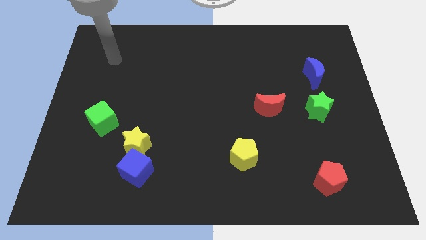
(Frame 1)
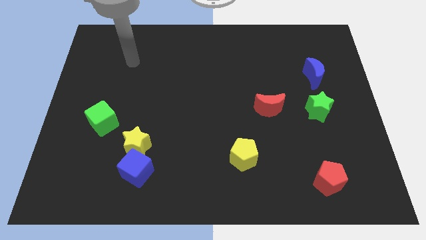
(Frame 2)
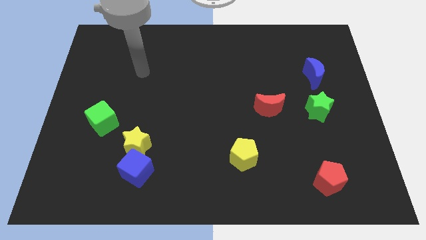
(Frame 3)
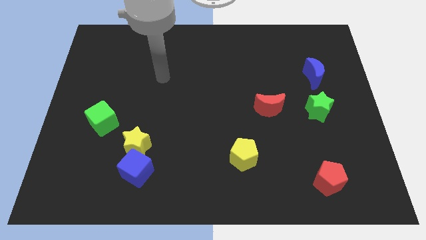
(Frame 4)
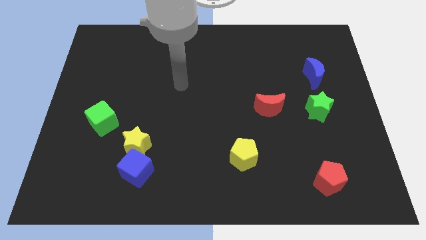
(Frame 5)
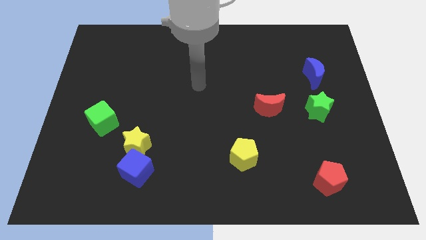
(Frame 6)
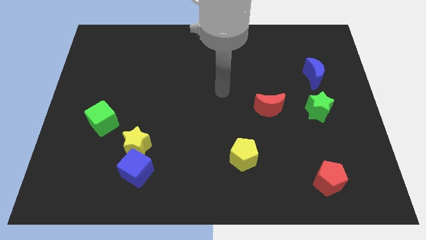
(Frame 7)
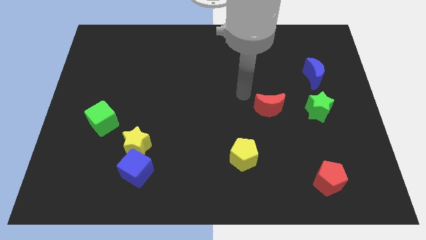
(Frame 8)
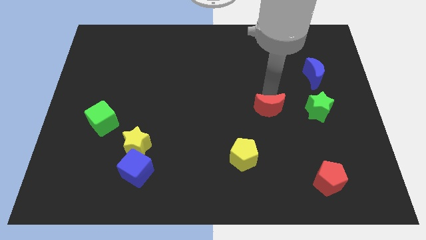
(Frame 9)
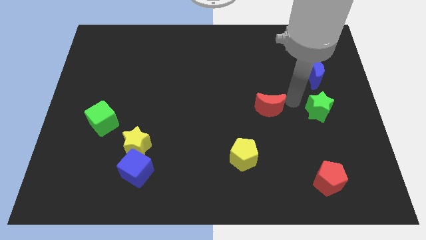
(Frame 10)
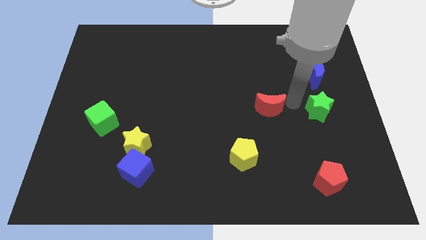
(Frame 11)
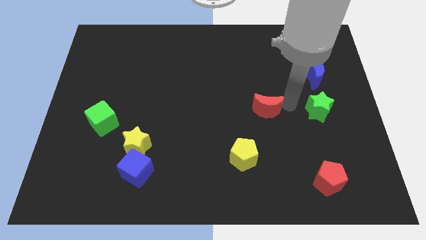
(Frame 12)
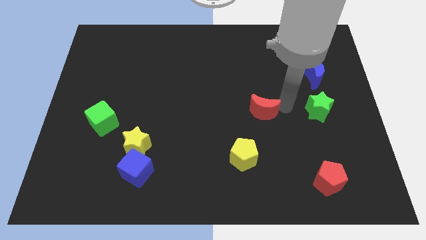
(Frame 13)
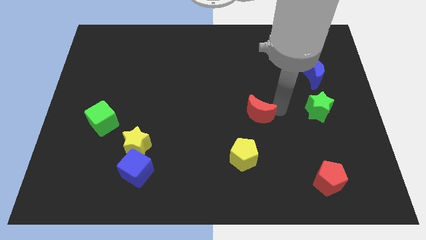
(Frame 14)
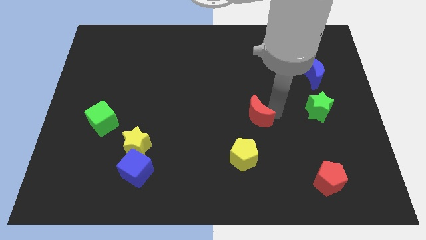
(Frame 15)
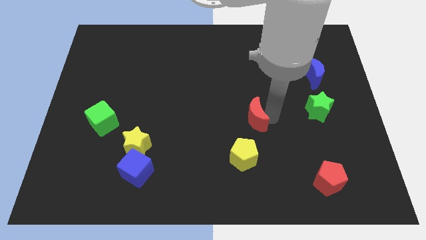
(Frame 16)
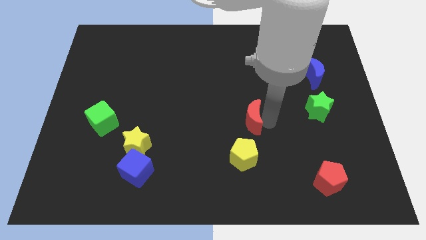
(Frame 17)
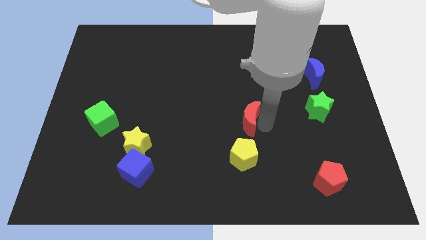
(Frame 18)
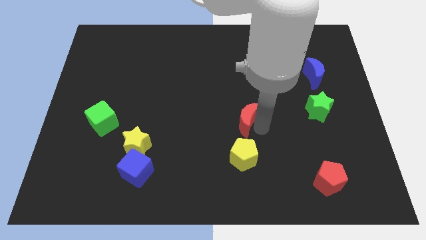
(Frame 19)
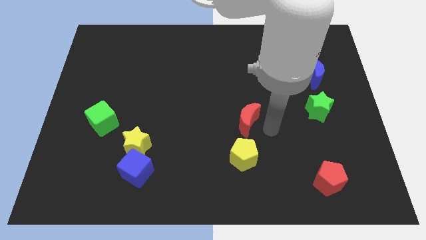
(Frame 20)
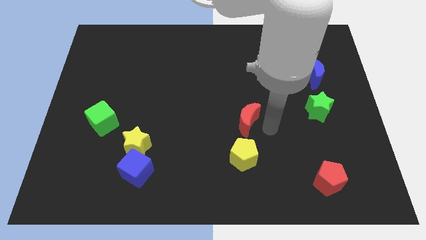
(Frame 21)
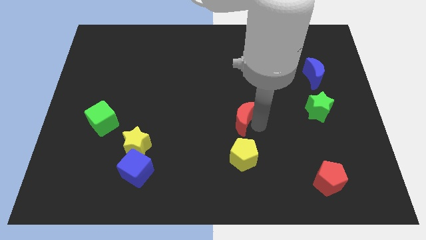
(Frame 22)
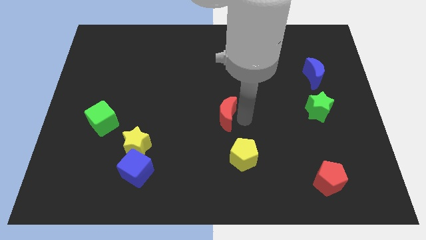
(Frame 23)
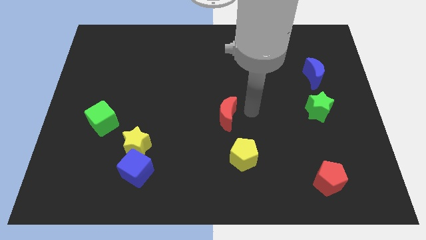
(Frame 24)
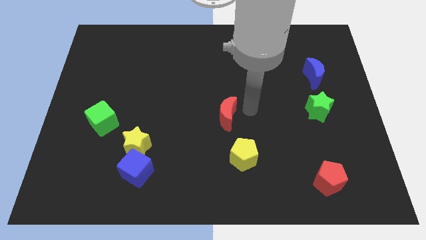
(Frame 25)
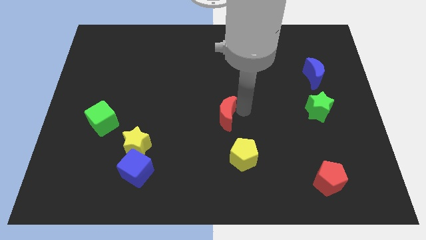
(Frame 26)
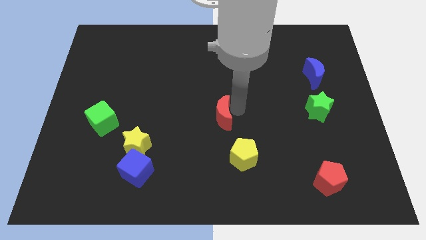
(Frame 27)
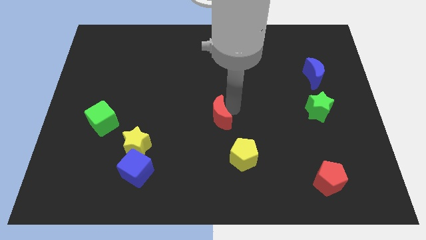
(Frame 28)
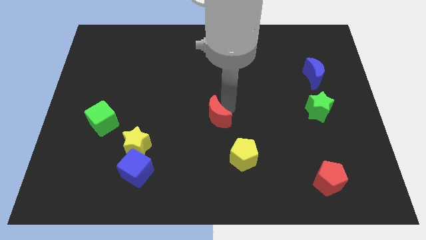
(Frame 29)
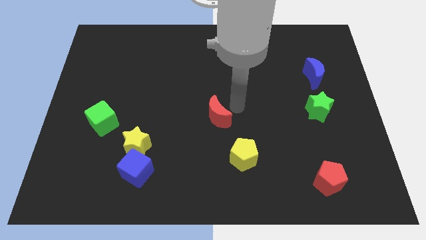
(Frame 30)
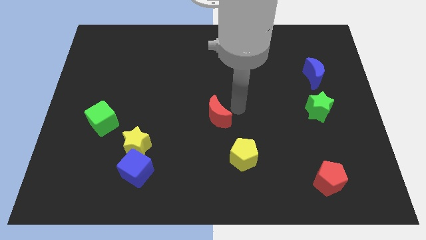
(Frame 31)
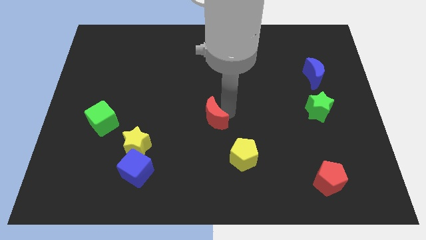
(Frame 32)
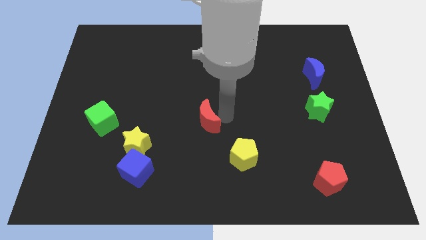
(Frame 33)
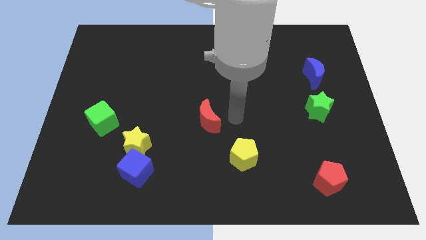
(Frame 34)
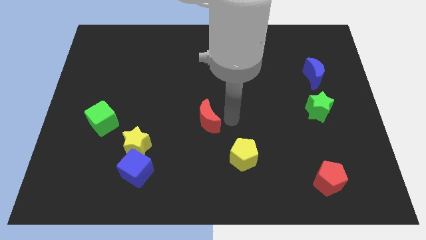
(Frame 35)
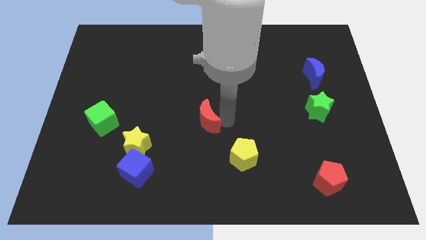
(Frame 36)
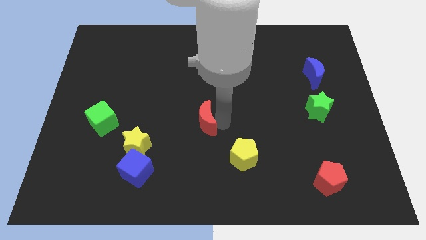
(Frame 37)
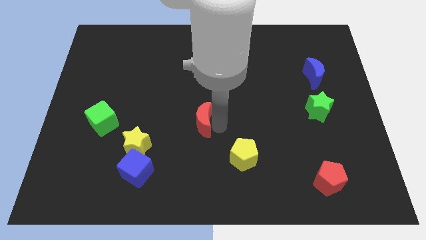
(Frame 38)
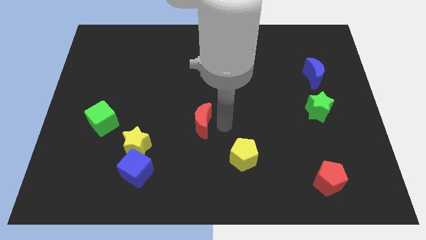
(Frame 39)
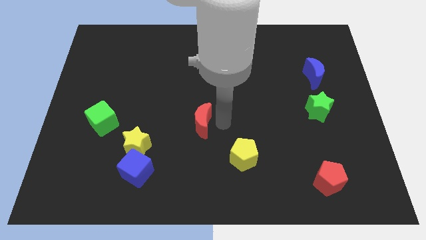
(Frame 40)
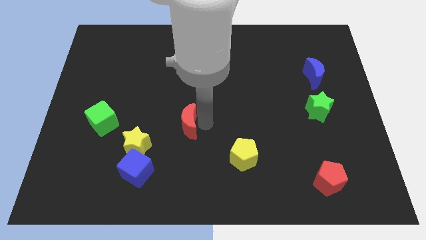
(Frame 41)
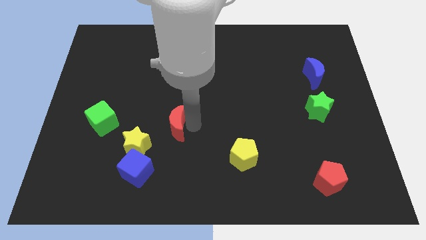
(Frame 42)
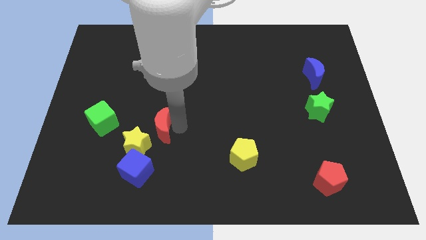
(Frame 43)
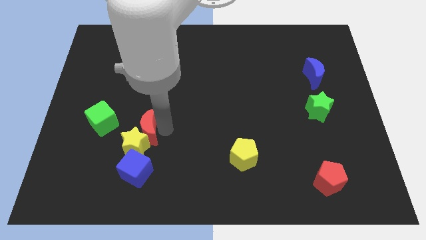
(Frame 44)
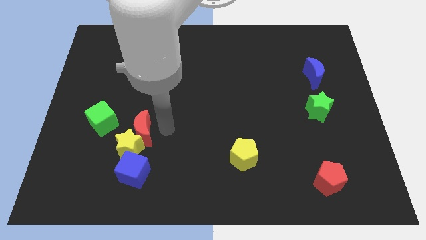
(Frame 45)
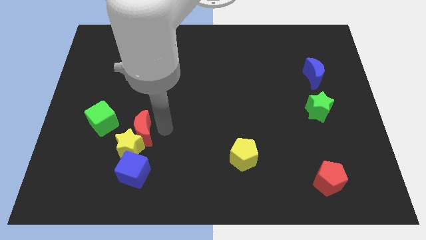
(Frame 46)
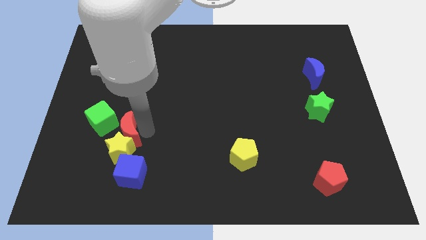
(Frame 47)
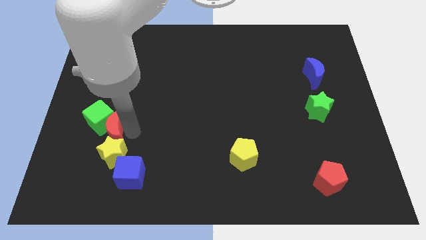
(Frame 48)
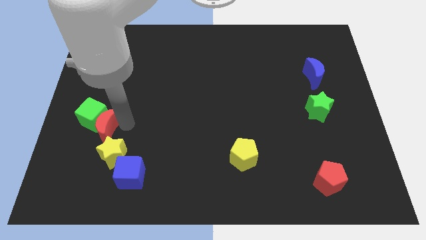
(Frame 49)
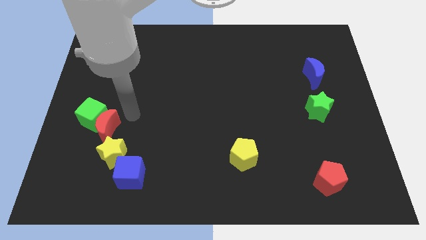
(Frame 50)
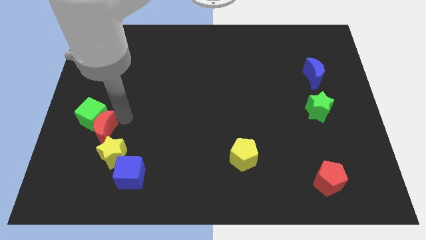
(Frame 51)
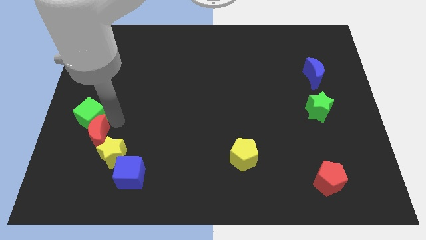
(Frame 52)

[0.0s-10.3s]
slide the red moon just left of the yellow star

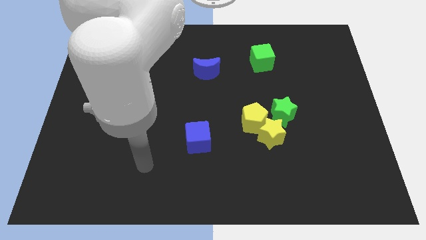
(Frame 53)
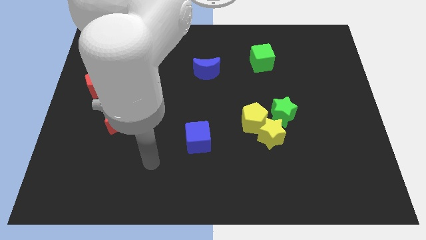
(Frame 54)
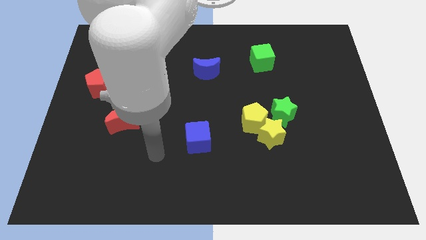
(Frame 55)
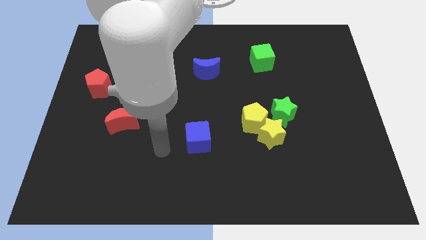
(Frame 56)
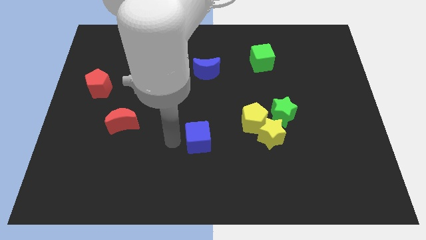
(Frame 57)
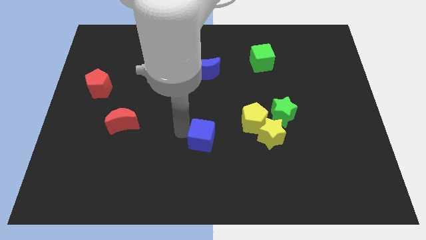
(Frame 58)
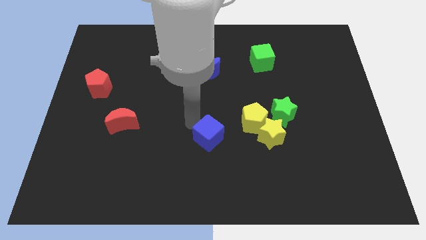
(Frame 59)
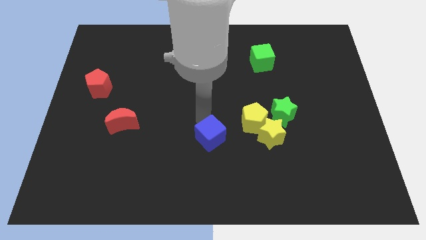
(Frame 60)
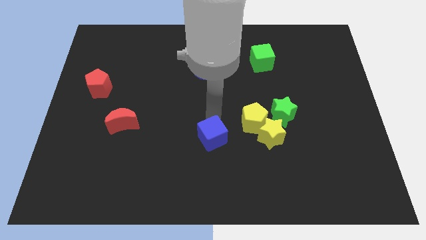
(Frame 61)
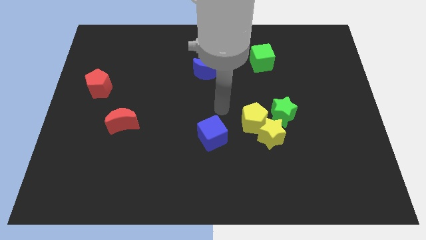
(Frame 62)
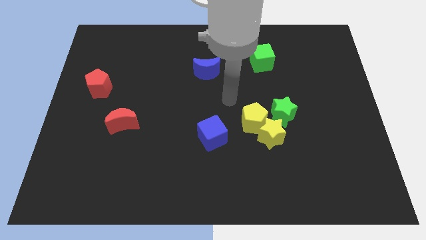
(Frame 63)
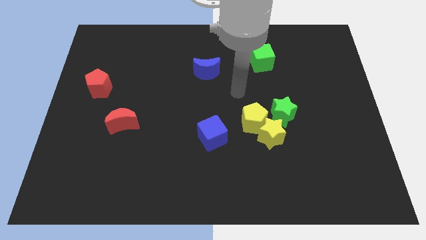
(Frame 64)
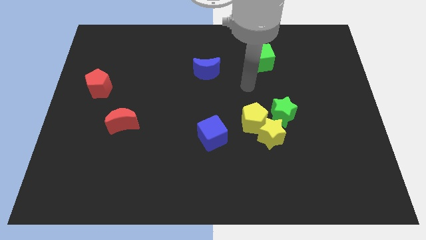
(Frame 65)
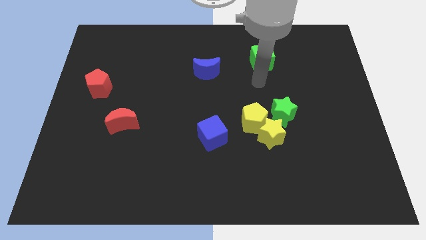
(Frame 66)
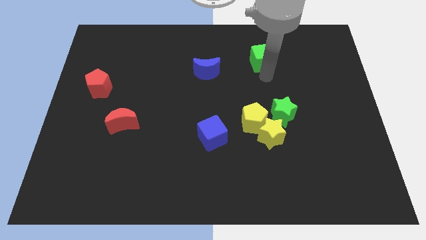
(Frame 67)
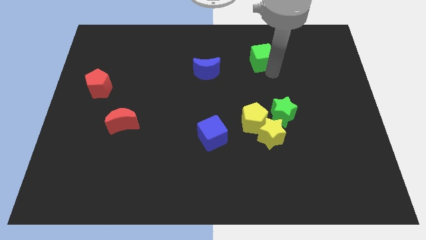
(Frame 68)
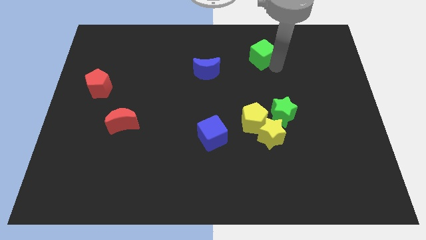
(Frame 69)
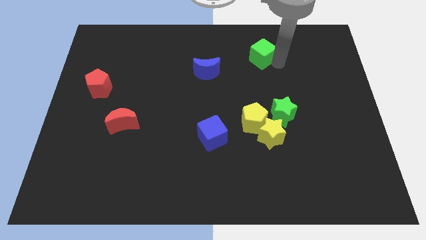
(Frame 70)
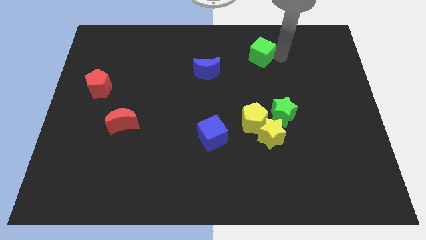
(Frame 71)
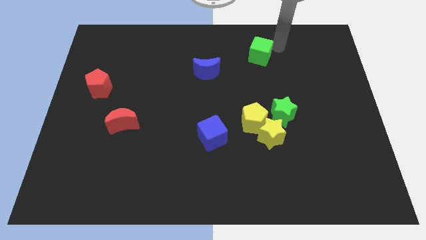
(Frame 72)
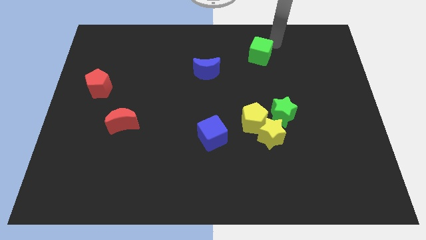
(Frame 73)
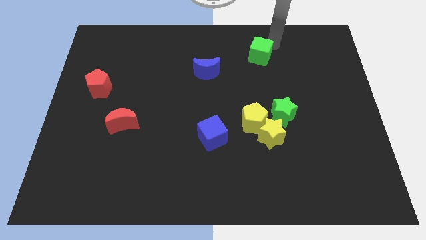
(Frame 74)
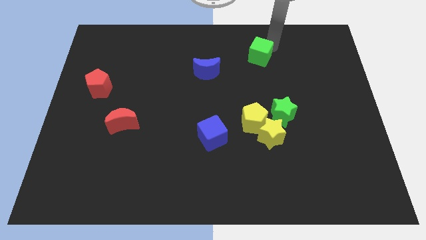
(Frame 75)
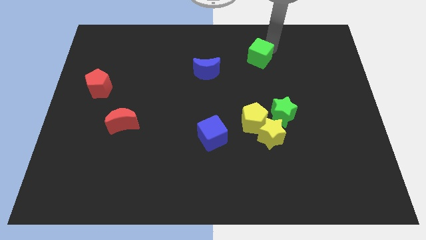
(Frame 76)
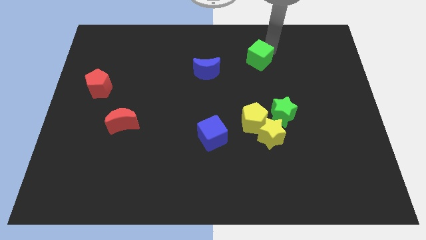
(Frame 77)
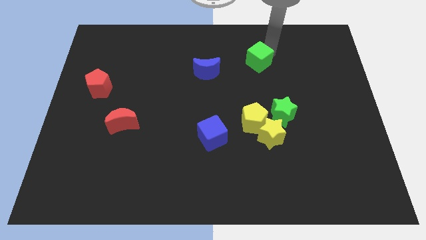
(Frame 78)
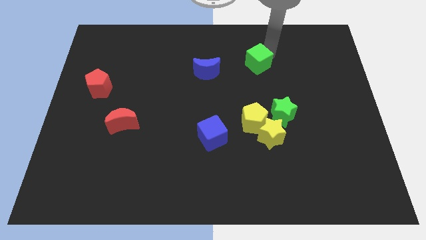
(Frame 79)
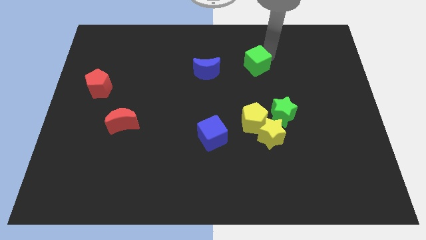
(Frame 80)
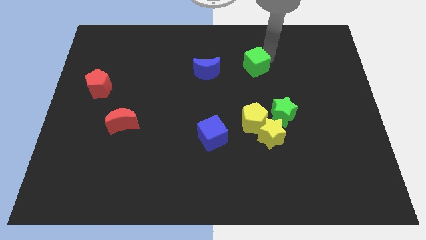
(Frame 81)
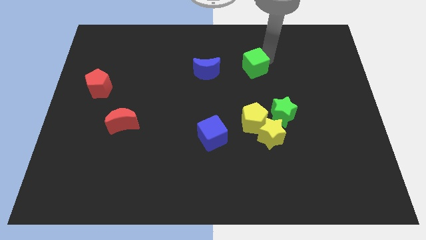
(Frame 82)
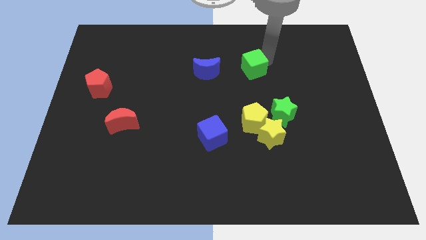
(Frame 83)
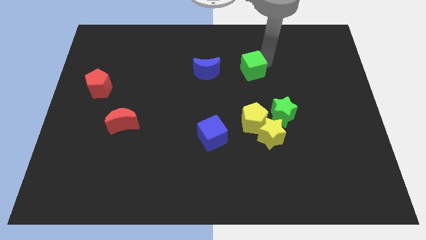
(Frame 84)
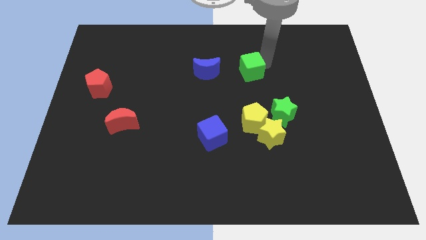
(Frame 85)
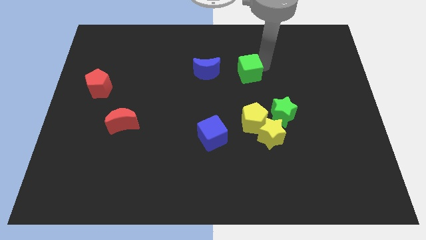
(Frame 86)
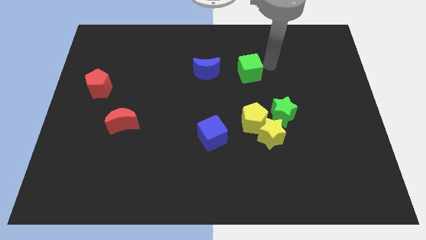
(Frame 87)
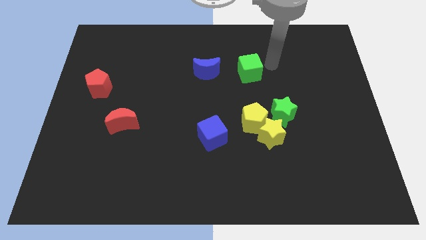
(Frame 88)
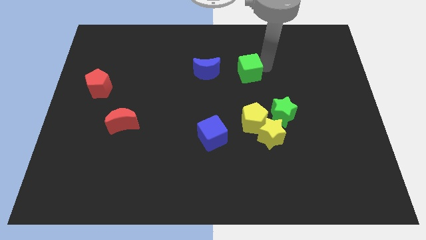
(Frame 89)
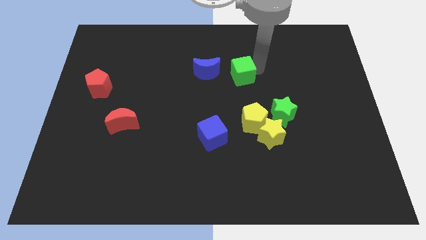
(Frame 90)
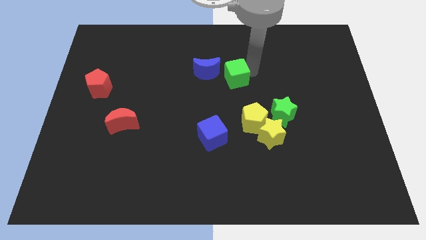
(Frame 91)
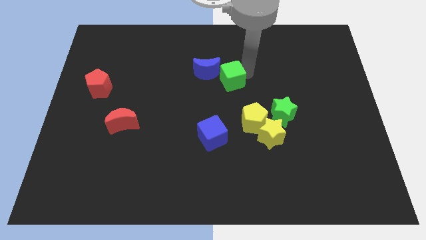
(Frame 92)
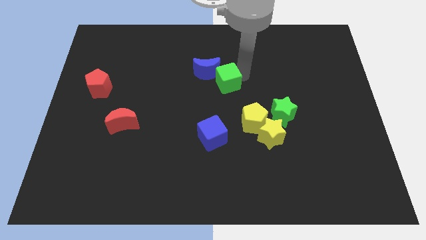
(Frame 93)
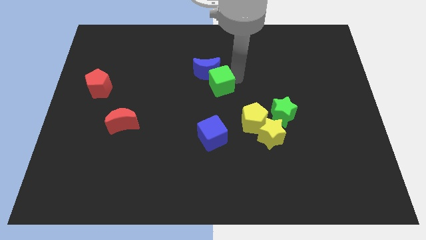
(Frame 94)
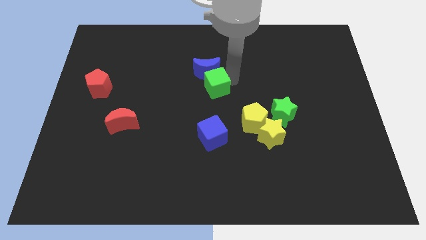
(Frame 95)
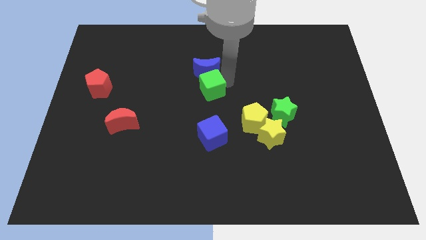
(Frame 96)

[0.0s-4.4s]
move the green cube to the bottom left of the blue moon
